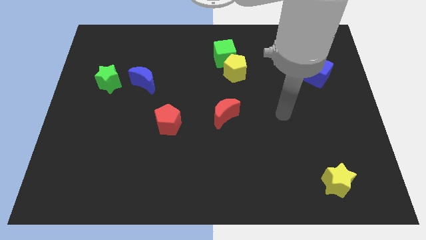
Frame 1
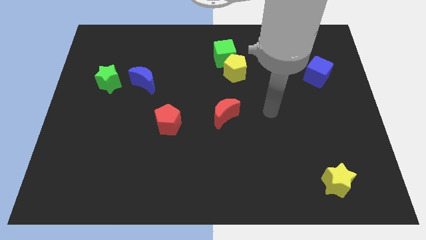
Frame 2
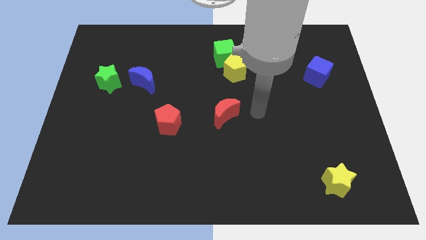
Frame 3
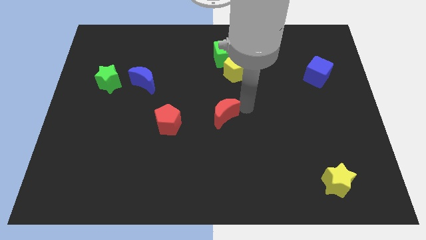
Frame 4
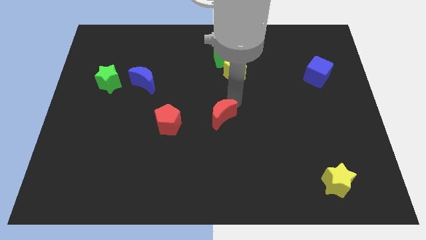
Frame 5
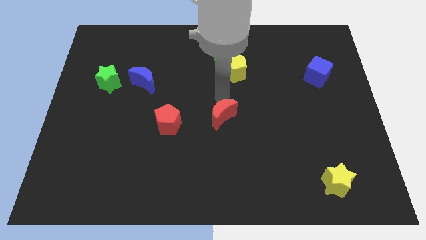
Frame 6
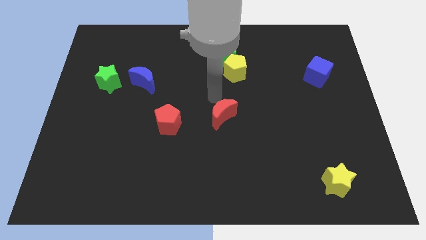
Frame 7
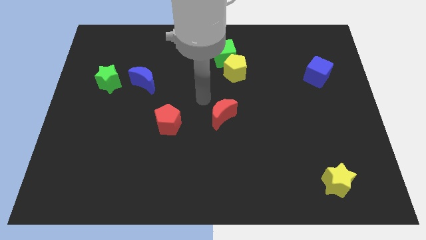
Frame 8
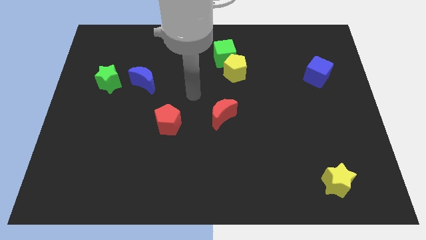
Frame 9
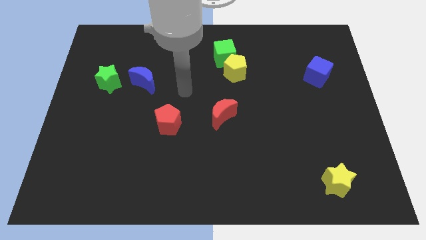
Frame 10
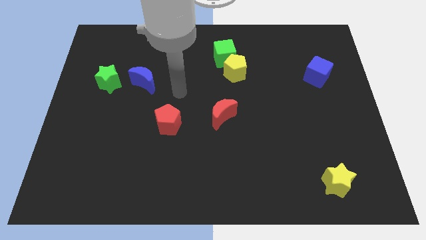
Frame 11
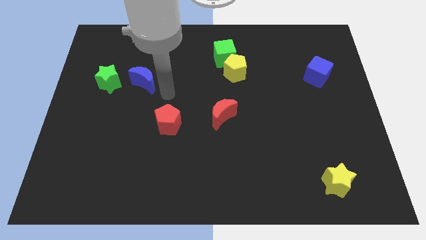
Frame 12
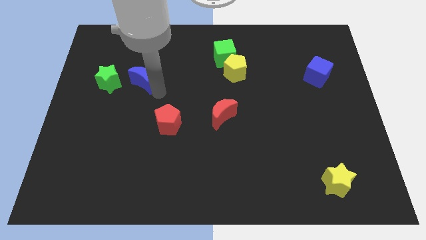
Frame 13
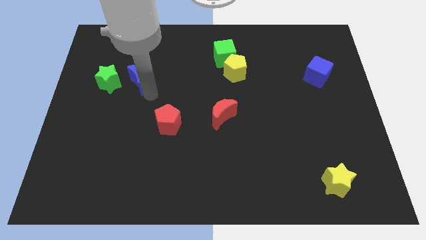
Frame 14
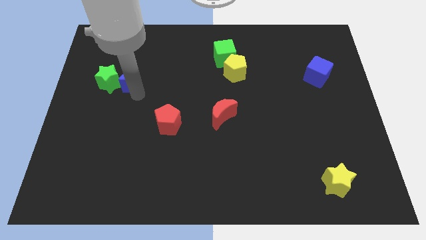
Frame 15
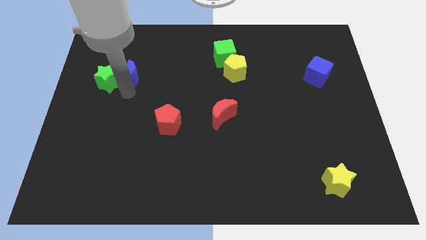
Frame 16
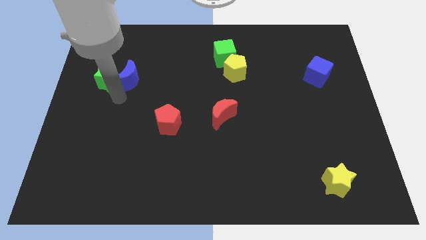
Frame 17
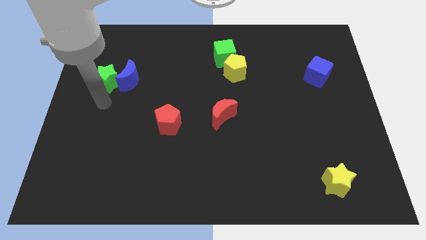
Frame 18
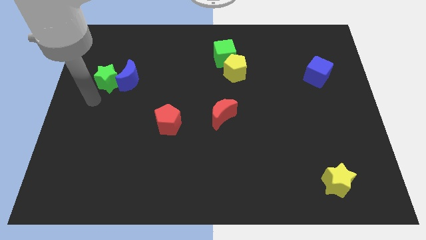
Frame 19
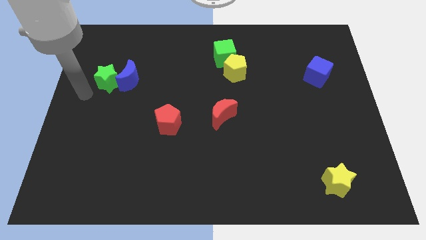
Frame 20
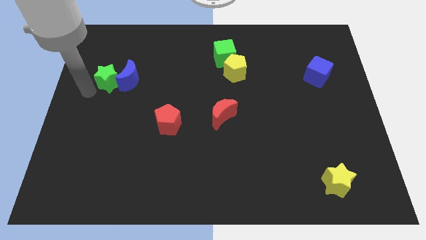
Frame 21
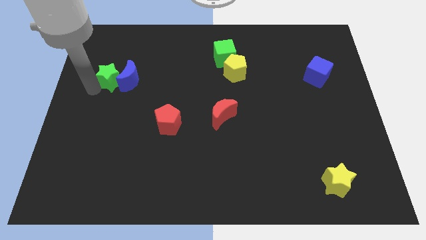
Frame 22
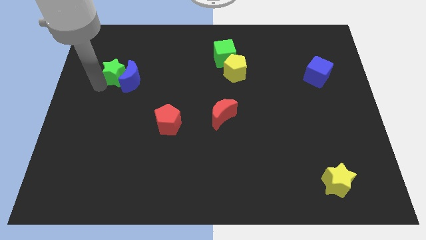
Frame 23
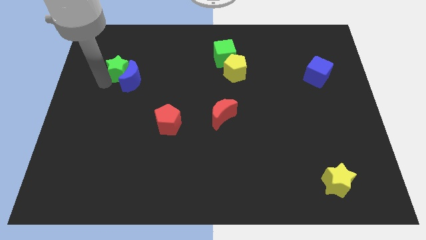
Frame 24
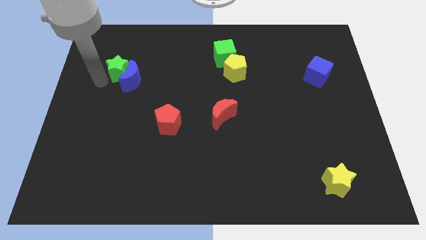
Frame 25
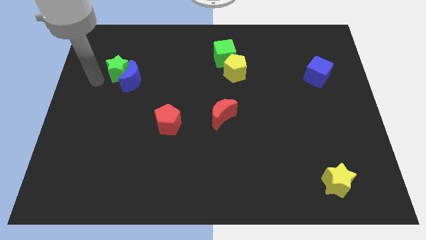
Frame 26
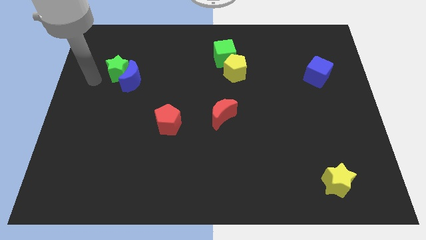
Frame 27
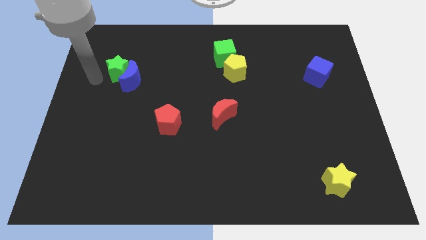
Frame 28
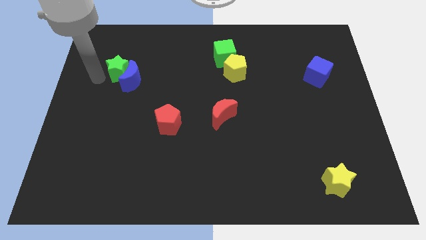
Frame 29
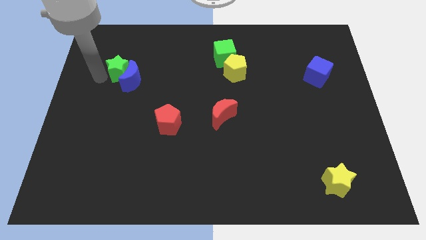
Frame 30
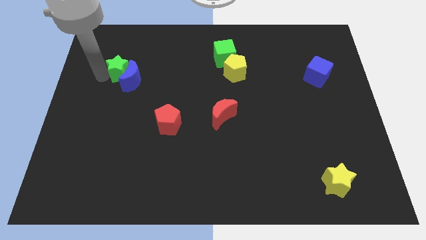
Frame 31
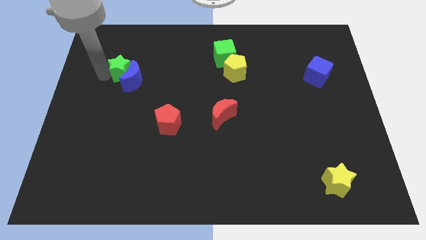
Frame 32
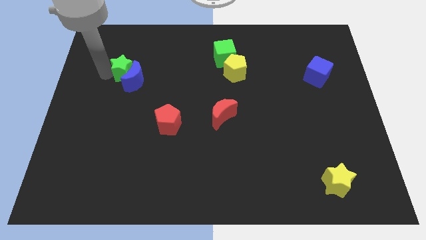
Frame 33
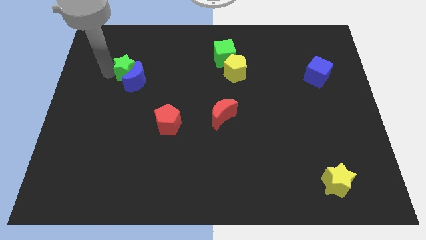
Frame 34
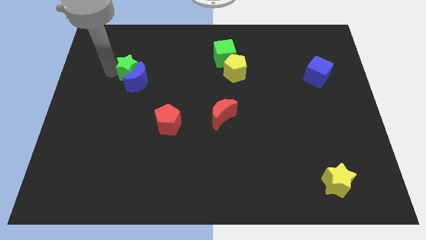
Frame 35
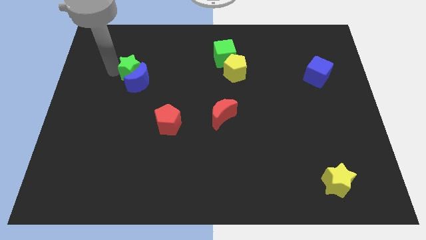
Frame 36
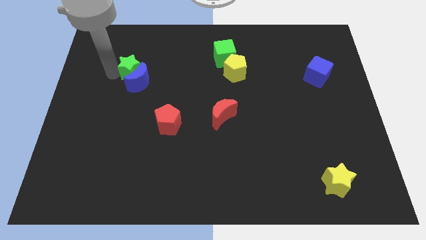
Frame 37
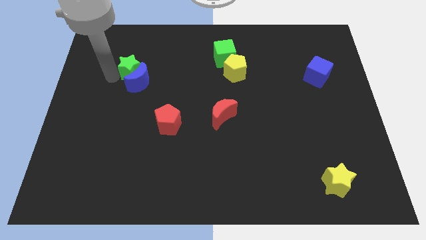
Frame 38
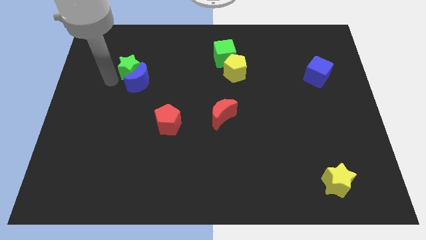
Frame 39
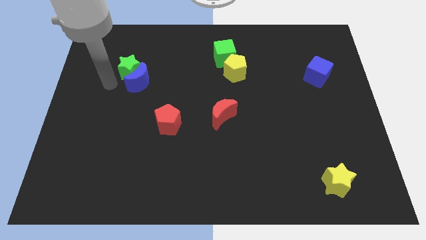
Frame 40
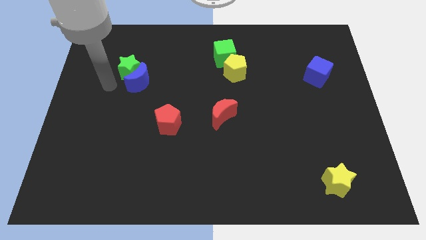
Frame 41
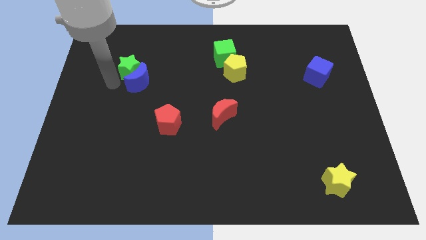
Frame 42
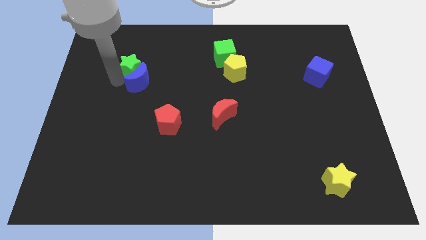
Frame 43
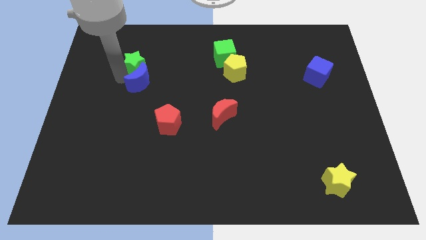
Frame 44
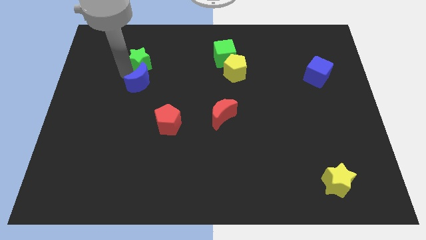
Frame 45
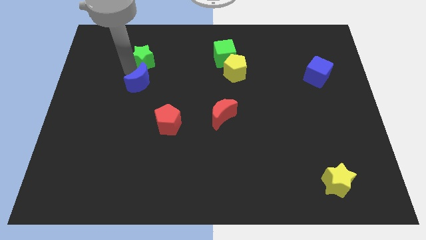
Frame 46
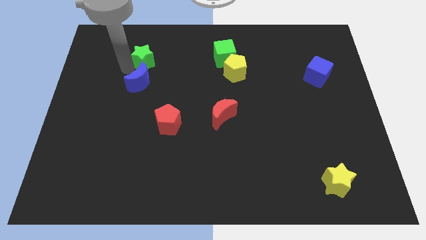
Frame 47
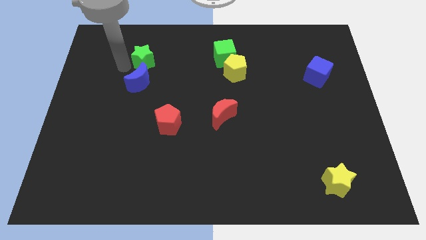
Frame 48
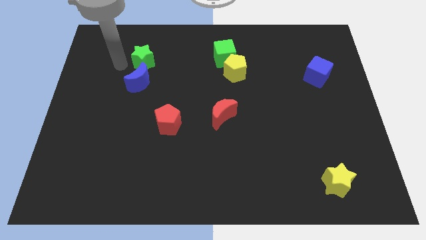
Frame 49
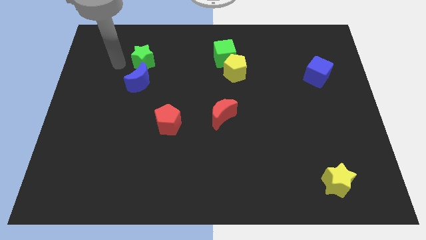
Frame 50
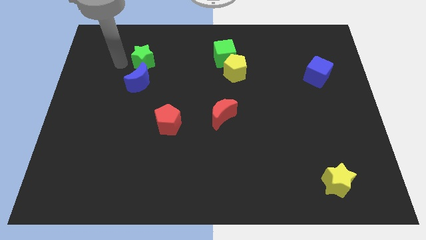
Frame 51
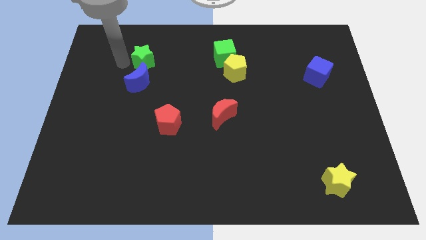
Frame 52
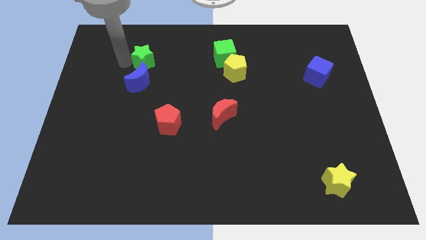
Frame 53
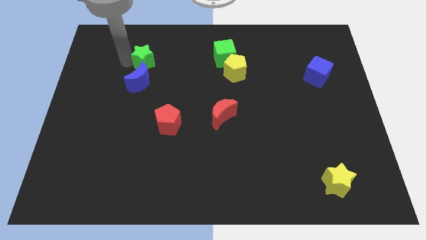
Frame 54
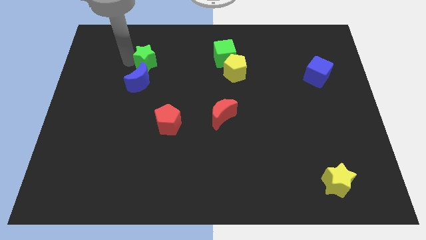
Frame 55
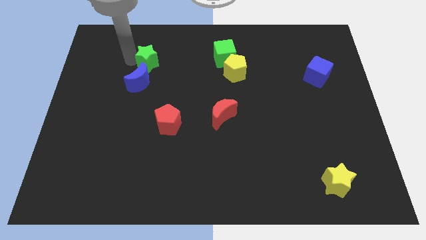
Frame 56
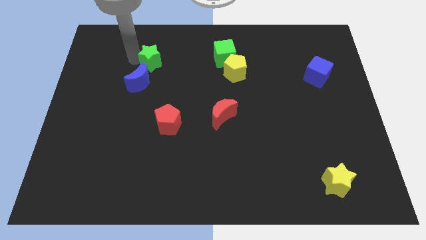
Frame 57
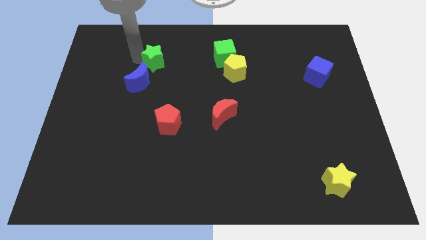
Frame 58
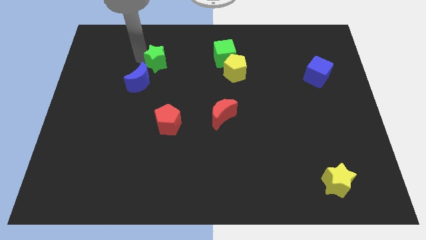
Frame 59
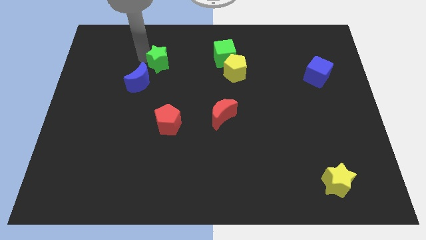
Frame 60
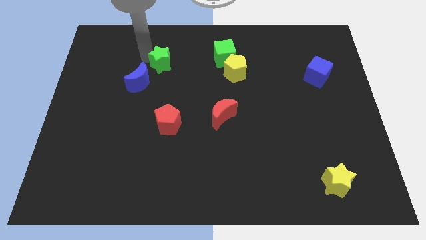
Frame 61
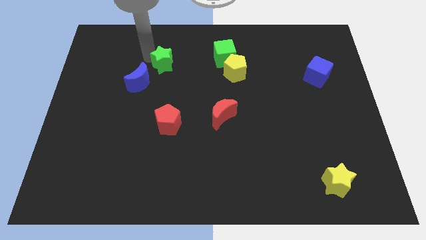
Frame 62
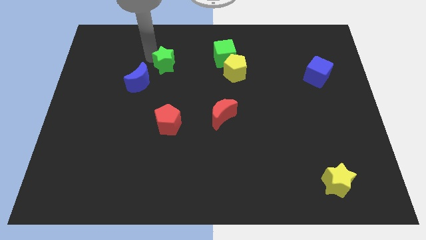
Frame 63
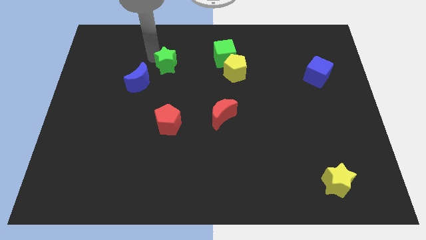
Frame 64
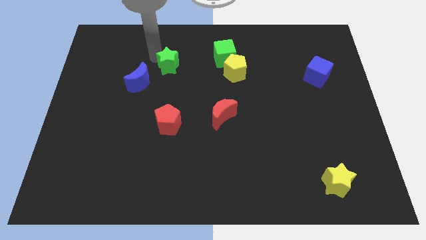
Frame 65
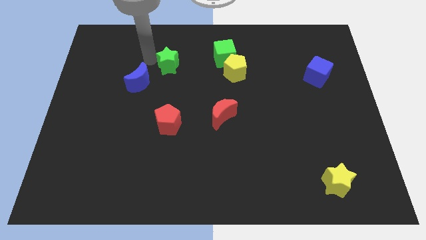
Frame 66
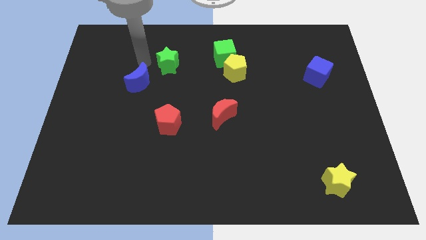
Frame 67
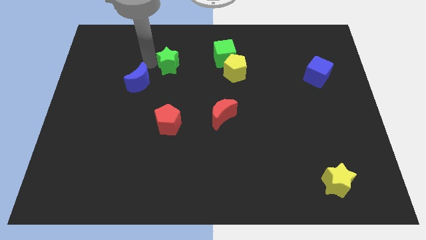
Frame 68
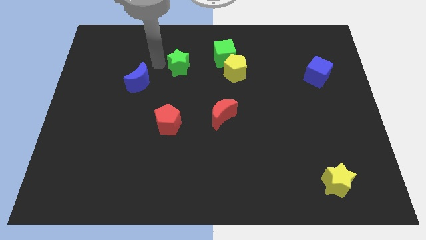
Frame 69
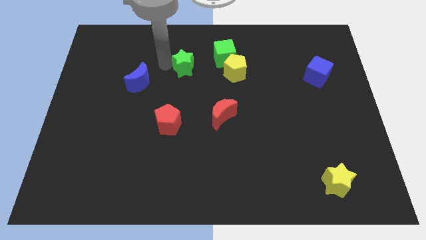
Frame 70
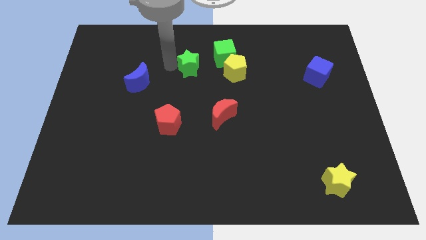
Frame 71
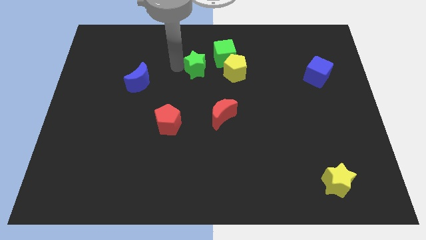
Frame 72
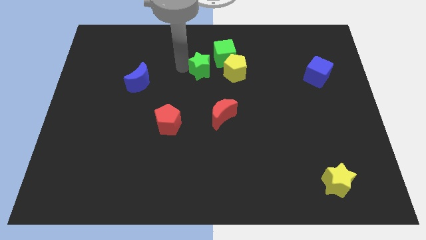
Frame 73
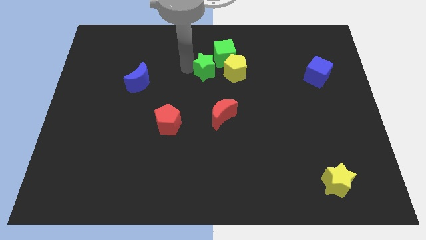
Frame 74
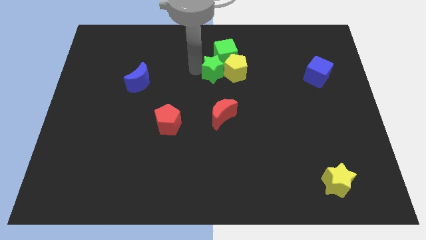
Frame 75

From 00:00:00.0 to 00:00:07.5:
push the green star close to the yellow pentagon
